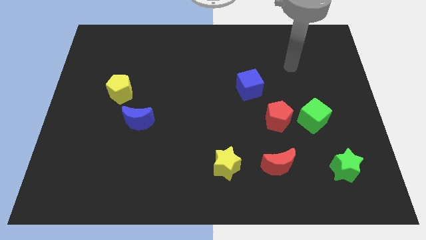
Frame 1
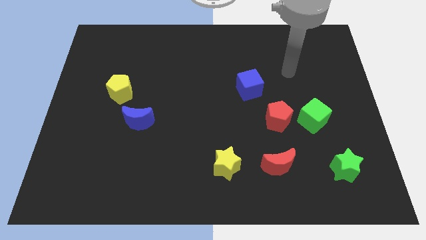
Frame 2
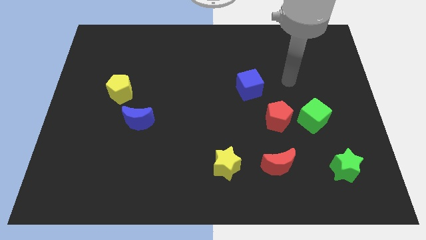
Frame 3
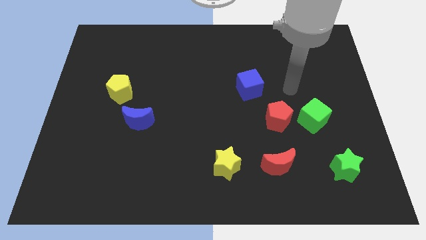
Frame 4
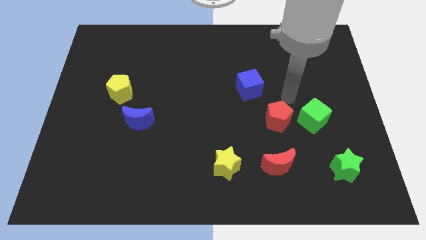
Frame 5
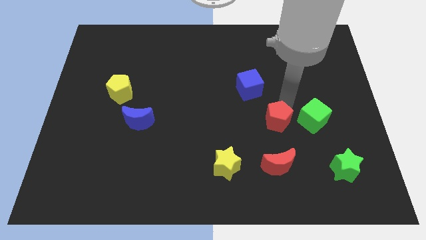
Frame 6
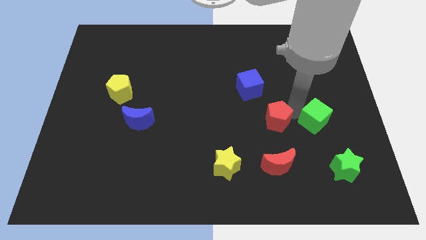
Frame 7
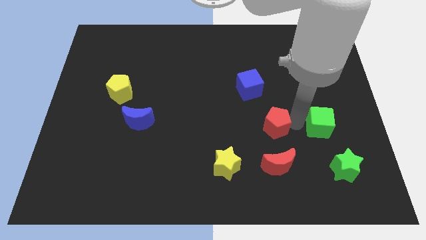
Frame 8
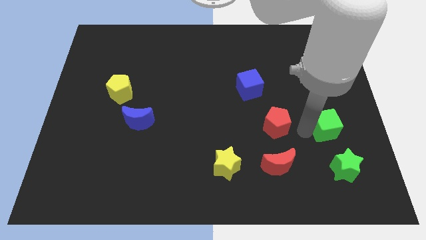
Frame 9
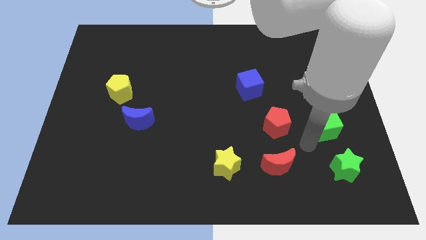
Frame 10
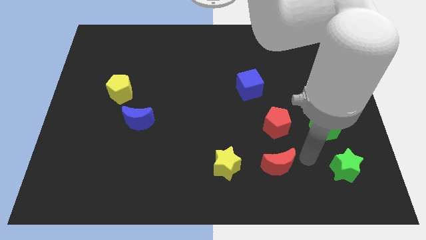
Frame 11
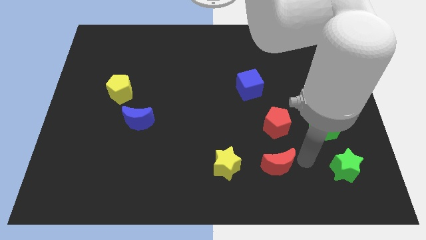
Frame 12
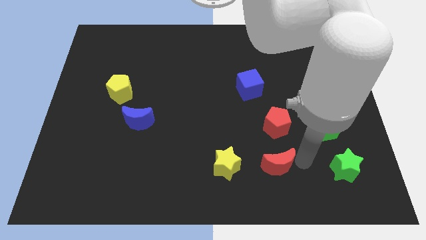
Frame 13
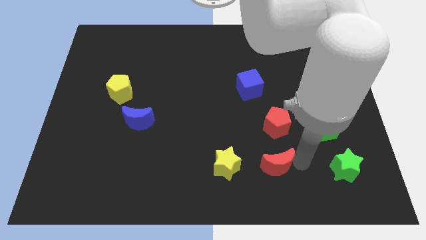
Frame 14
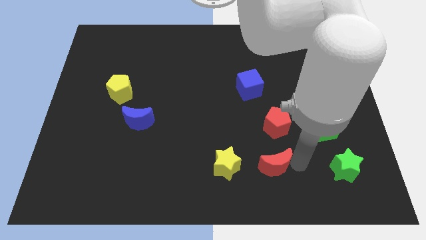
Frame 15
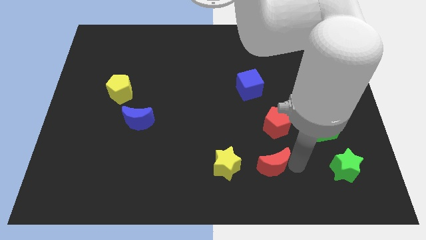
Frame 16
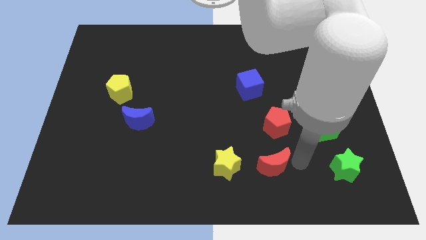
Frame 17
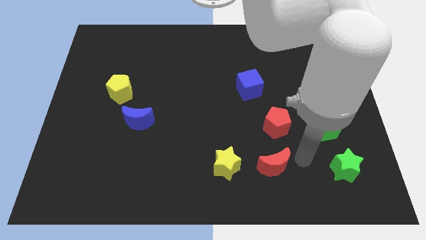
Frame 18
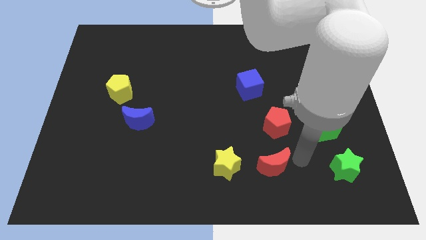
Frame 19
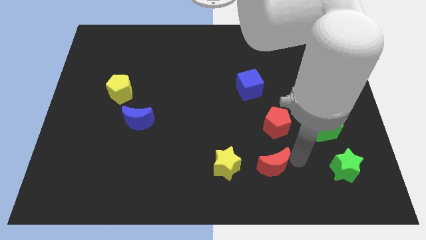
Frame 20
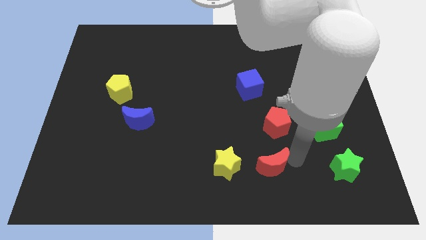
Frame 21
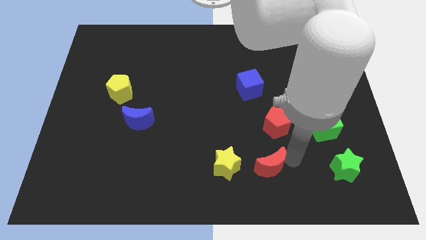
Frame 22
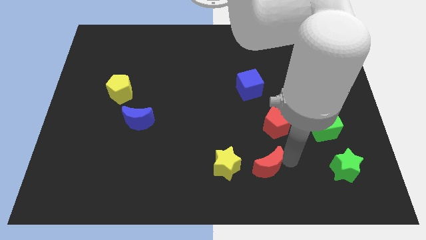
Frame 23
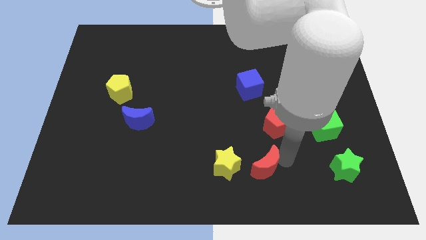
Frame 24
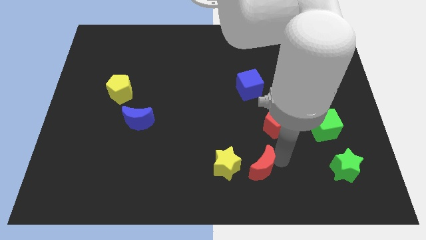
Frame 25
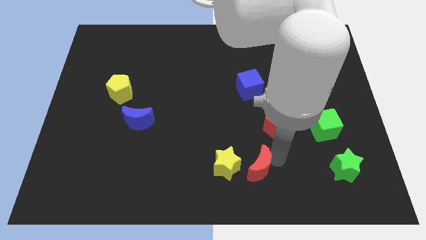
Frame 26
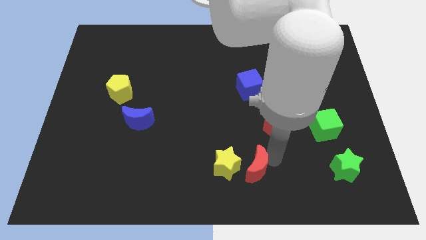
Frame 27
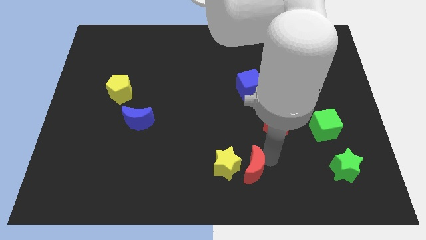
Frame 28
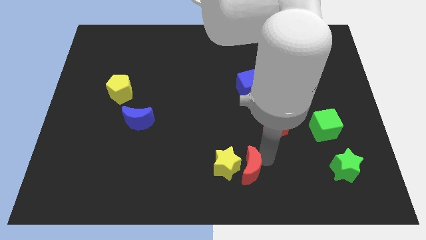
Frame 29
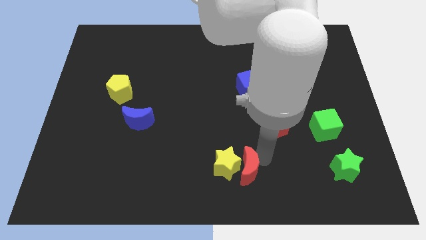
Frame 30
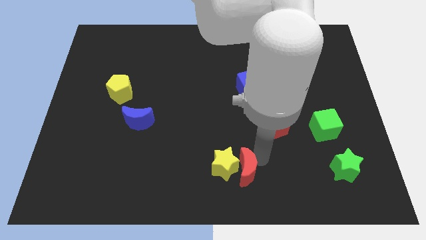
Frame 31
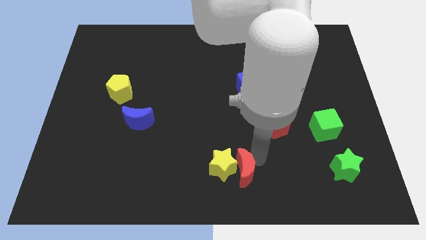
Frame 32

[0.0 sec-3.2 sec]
move the red moon left a bit

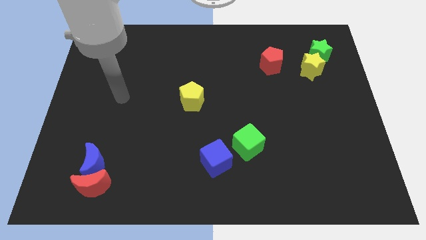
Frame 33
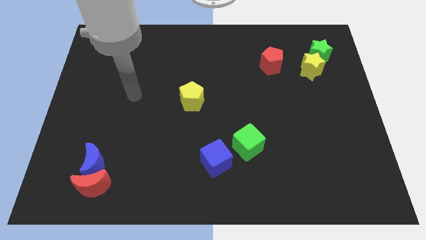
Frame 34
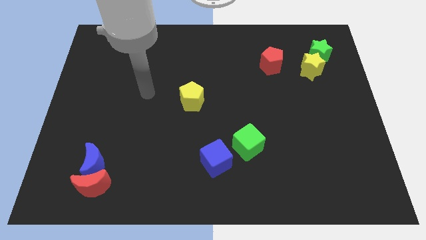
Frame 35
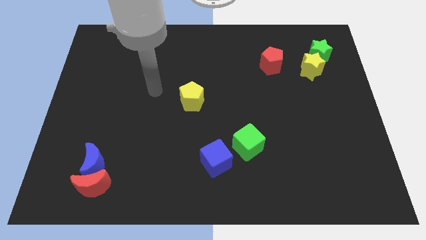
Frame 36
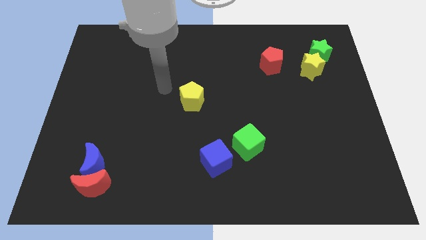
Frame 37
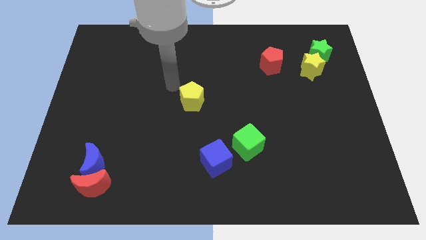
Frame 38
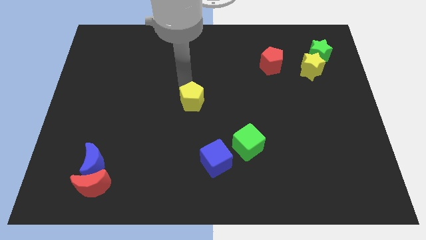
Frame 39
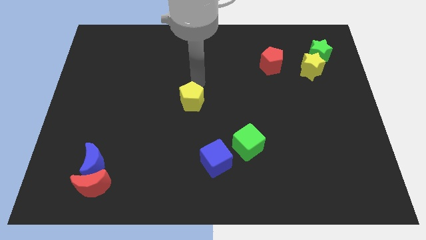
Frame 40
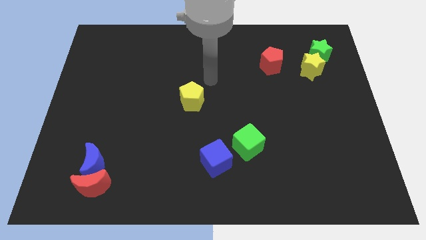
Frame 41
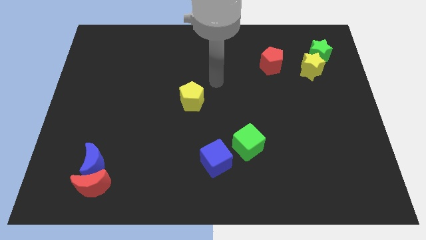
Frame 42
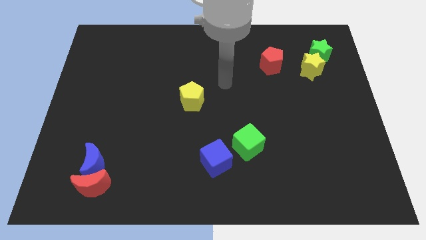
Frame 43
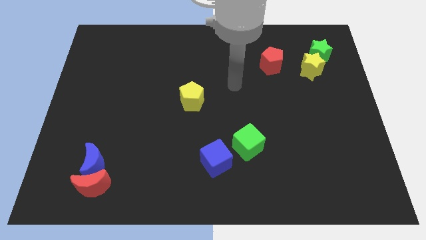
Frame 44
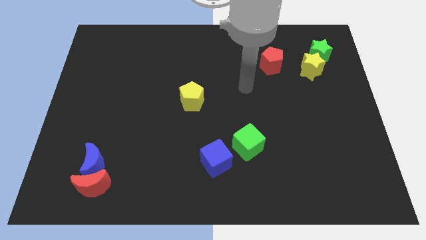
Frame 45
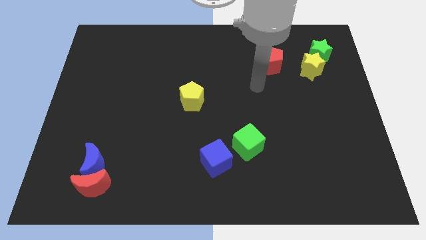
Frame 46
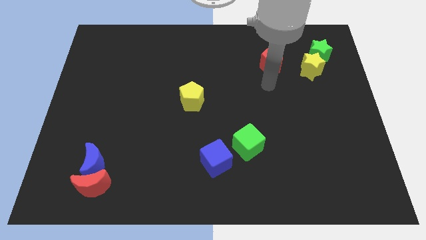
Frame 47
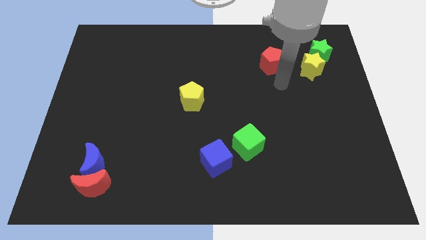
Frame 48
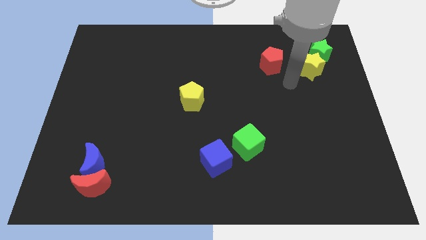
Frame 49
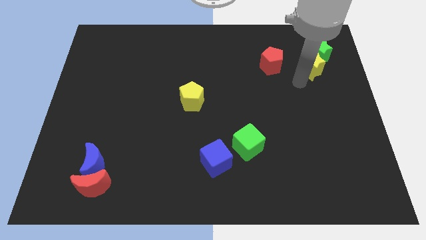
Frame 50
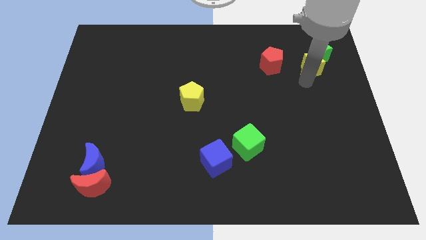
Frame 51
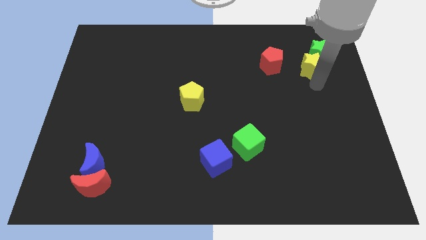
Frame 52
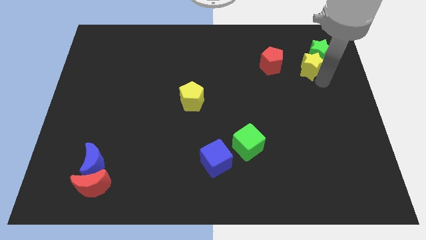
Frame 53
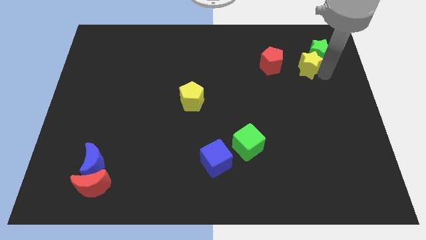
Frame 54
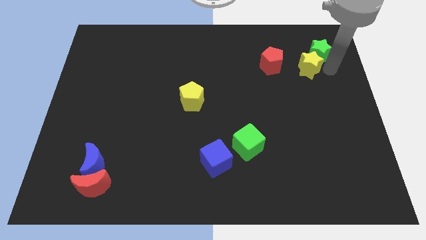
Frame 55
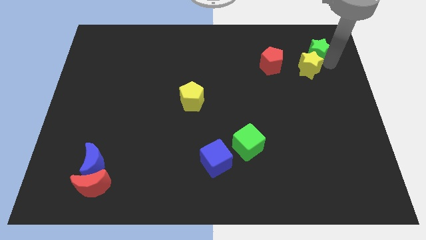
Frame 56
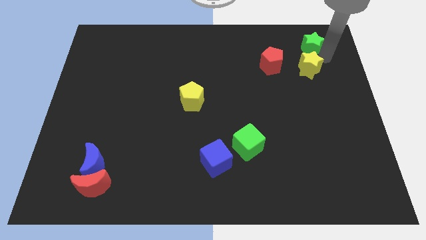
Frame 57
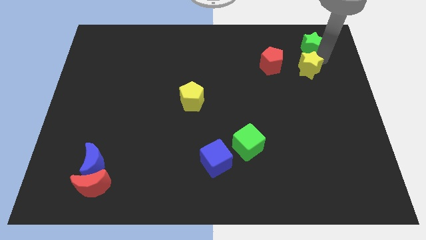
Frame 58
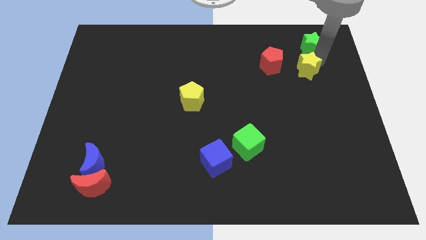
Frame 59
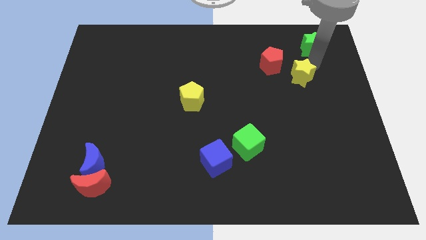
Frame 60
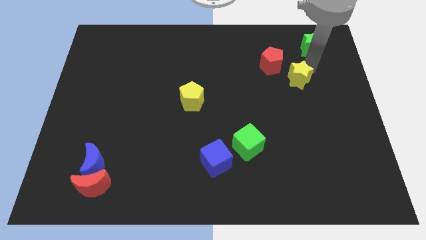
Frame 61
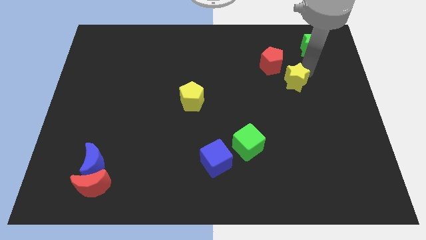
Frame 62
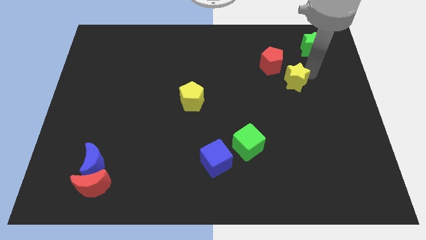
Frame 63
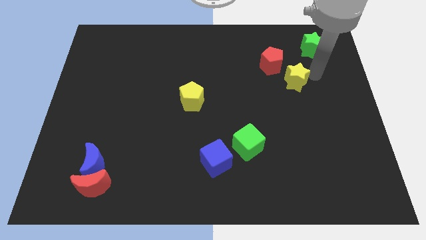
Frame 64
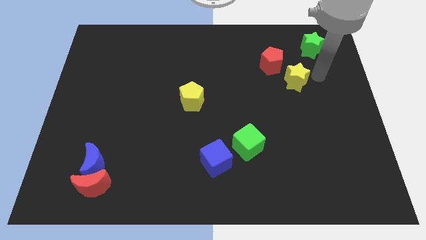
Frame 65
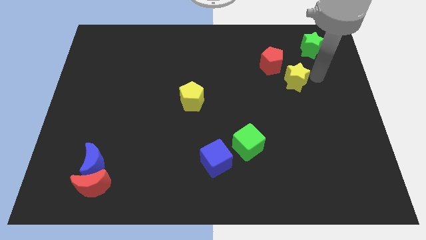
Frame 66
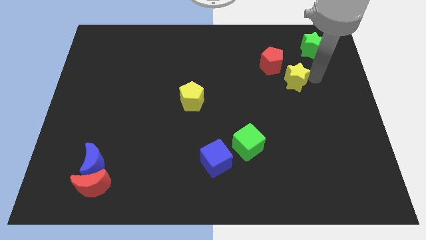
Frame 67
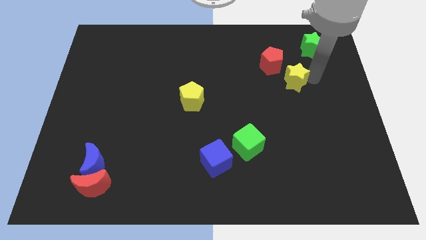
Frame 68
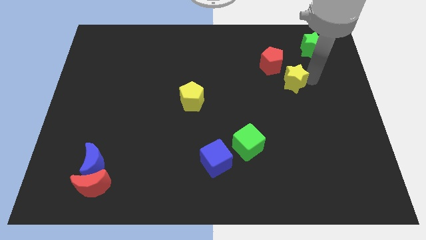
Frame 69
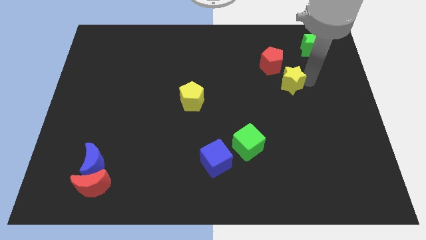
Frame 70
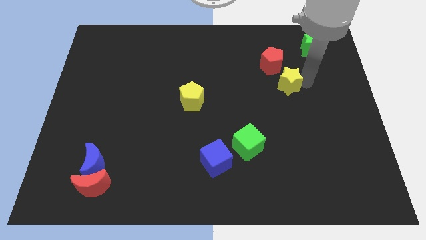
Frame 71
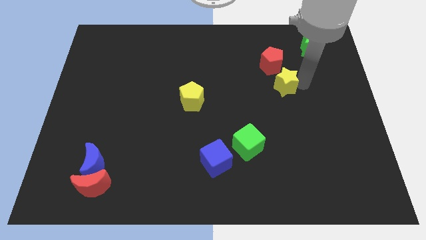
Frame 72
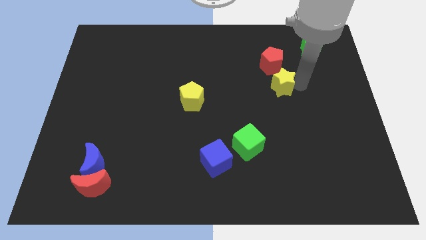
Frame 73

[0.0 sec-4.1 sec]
slightly slide the yellow star to the left

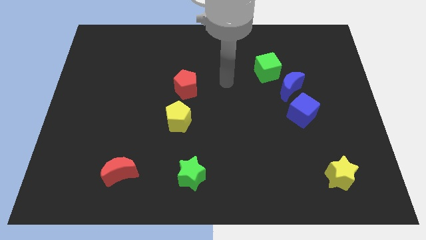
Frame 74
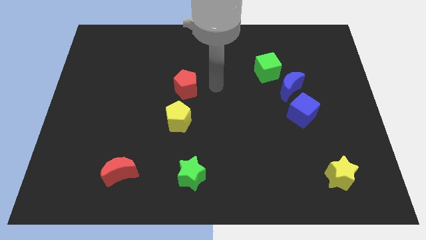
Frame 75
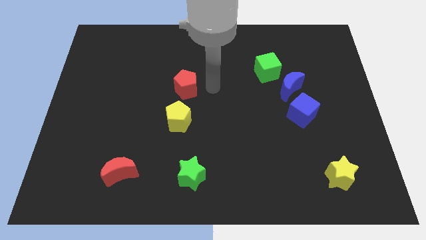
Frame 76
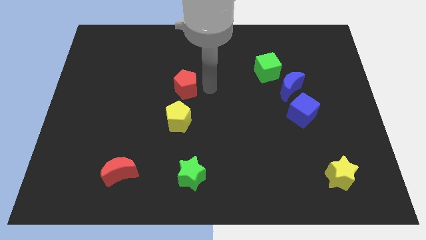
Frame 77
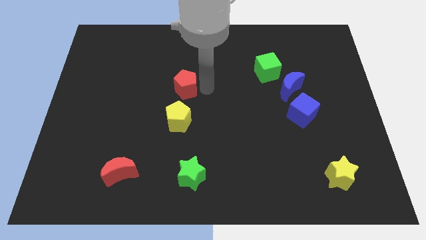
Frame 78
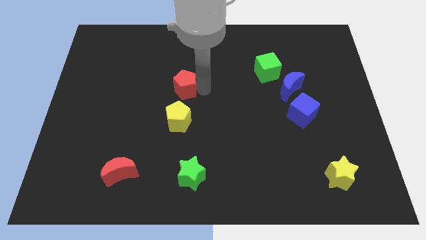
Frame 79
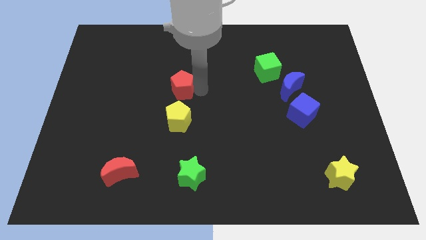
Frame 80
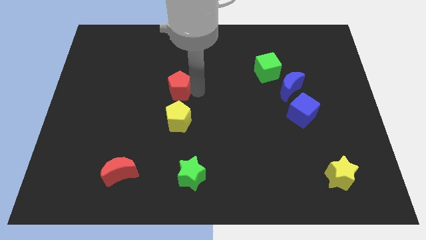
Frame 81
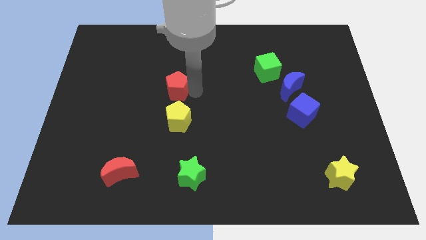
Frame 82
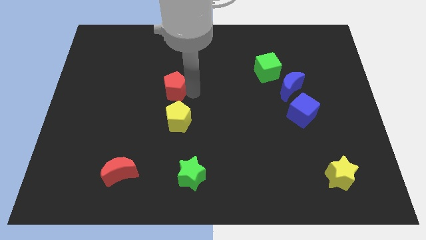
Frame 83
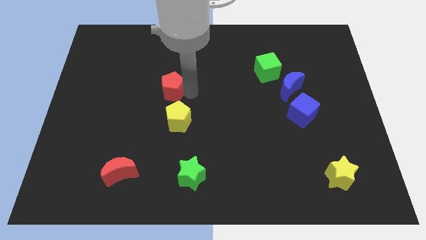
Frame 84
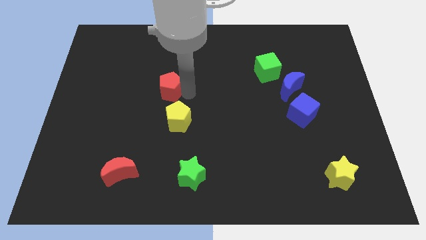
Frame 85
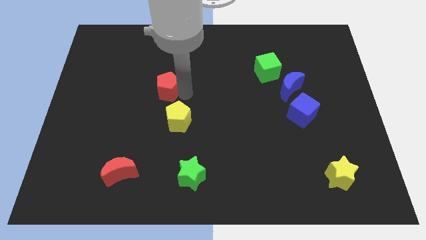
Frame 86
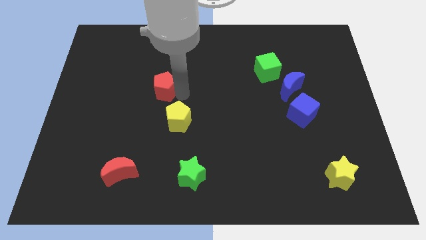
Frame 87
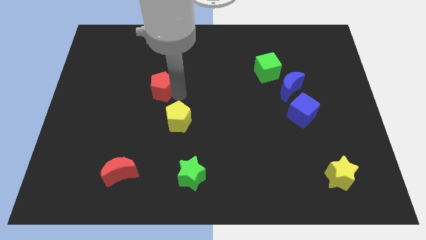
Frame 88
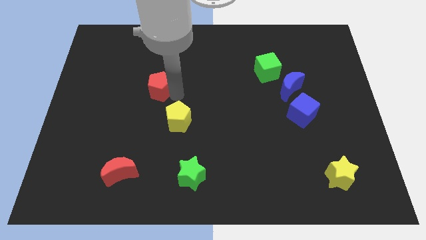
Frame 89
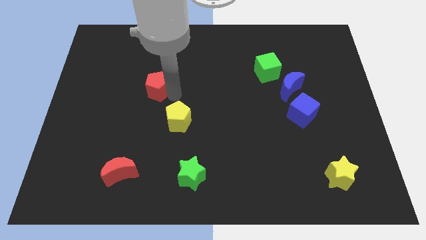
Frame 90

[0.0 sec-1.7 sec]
slide the red pentagon somewhat left
